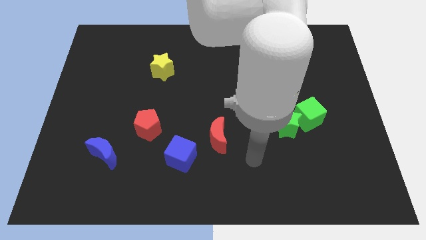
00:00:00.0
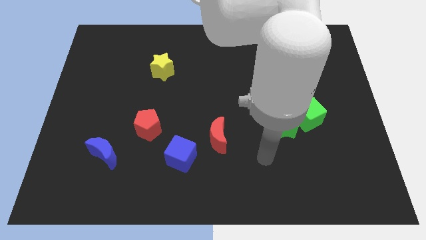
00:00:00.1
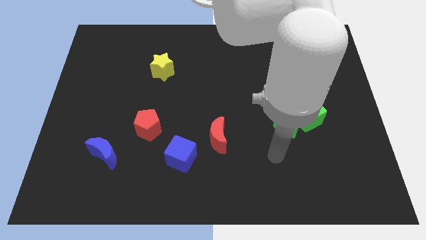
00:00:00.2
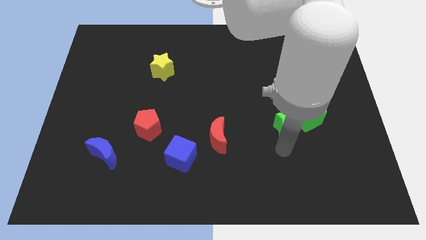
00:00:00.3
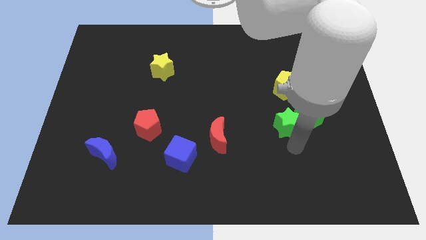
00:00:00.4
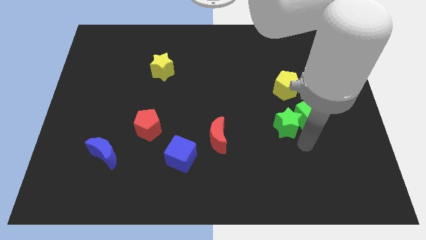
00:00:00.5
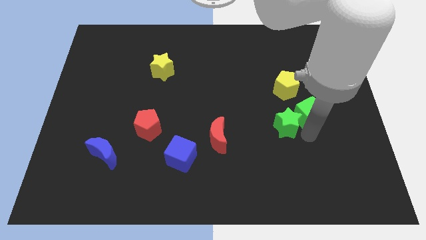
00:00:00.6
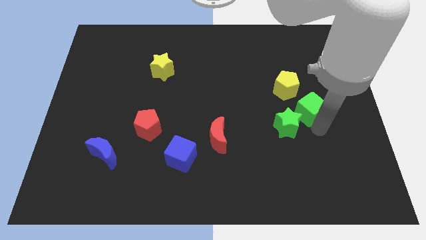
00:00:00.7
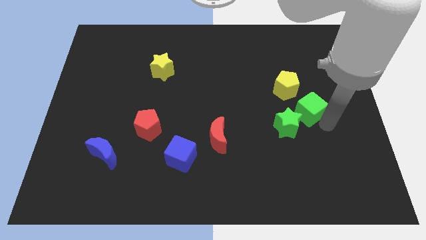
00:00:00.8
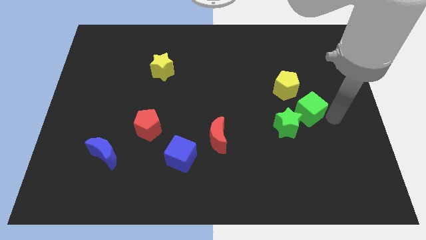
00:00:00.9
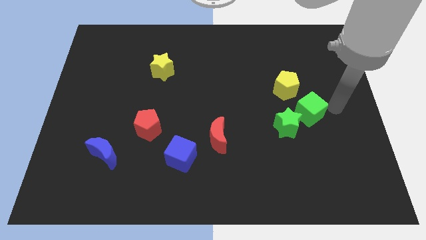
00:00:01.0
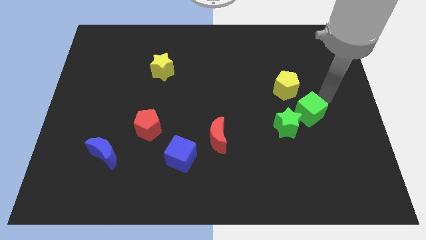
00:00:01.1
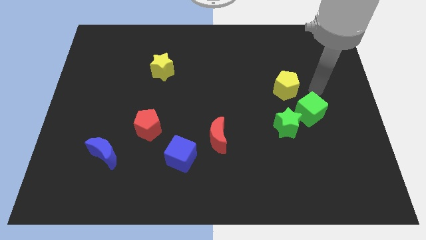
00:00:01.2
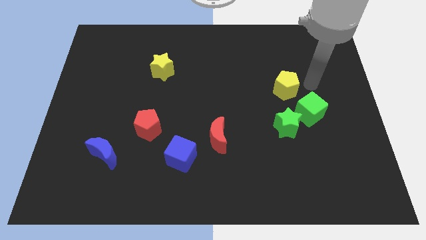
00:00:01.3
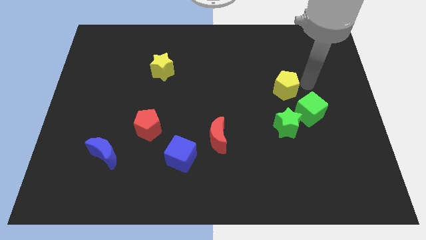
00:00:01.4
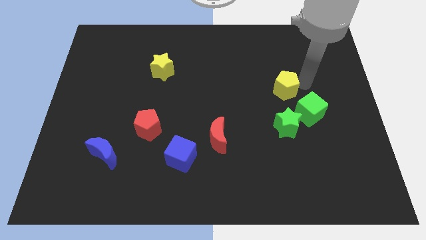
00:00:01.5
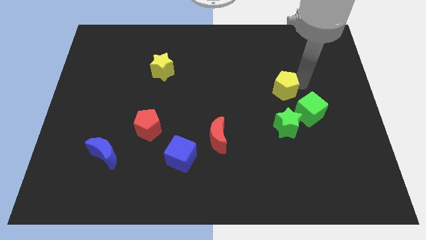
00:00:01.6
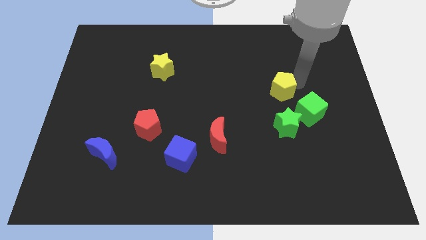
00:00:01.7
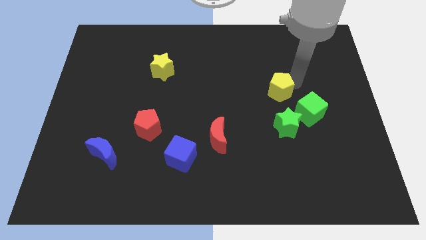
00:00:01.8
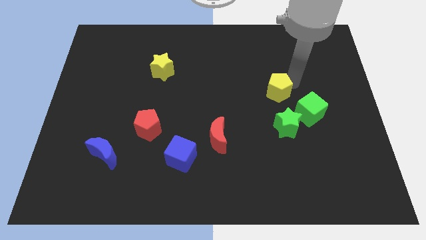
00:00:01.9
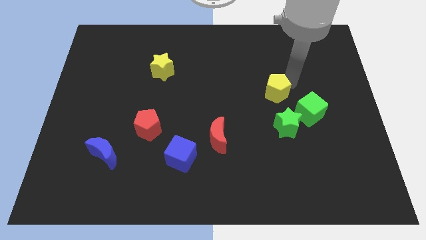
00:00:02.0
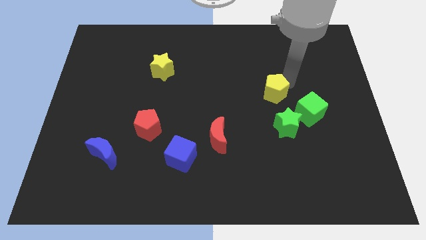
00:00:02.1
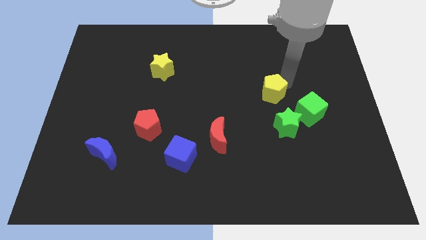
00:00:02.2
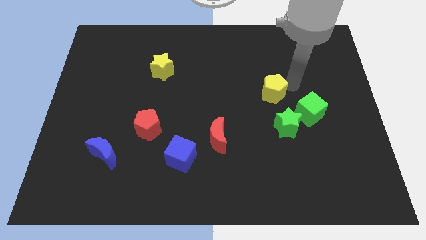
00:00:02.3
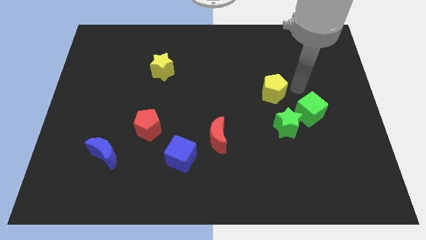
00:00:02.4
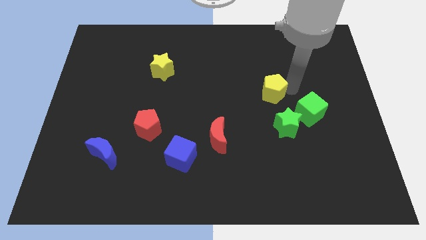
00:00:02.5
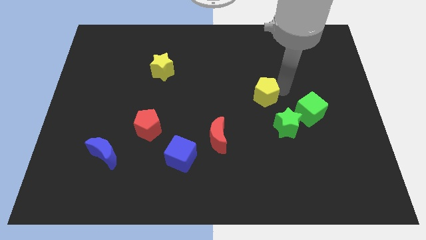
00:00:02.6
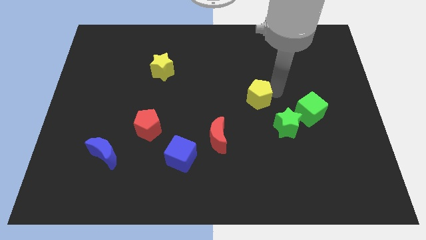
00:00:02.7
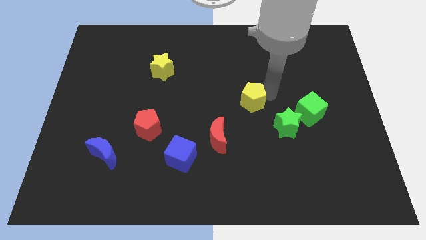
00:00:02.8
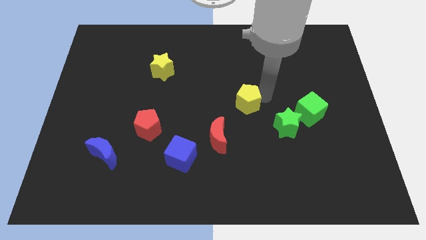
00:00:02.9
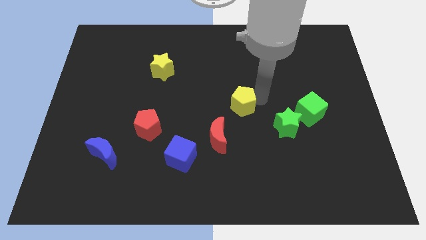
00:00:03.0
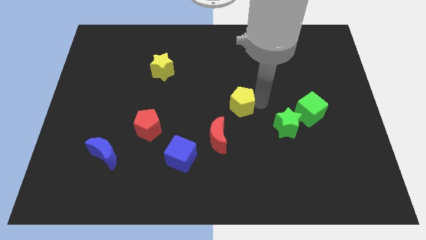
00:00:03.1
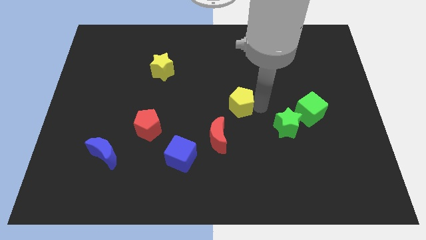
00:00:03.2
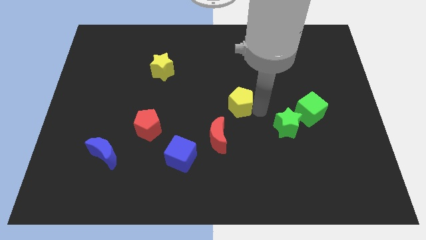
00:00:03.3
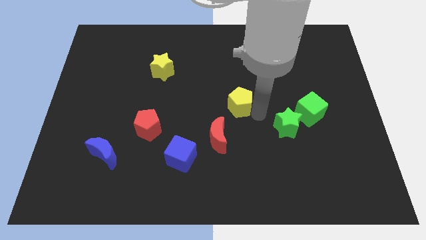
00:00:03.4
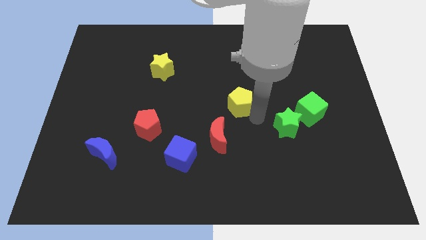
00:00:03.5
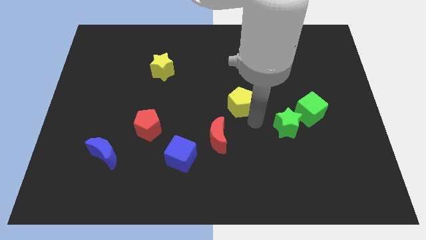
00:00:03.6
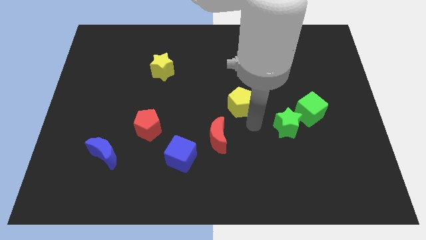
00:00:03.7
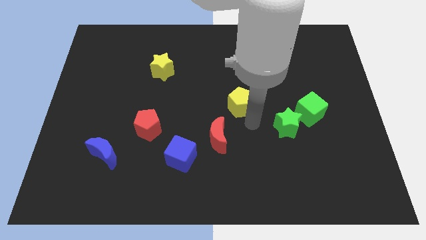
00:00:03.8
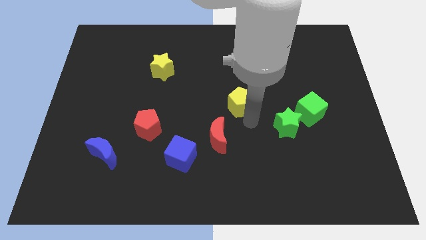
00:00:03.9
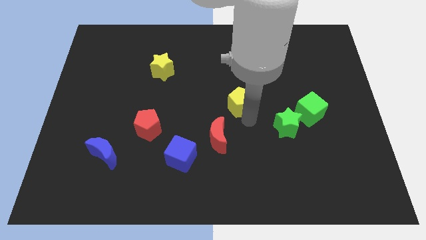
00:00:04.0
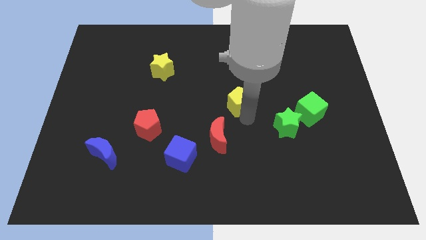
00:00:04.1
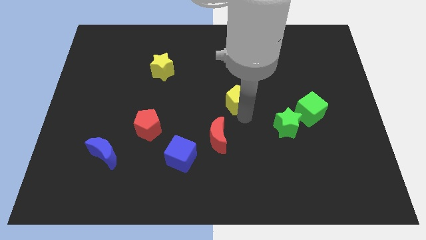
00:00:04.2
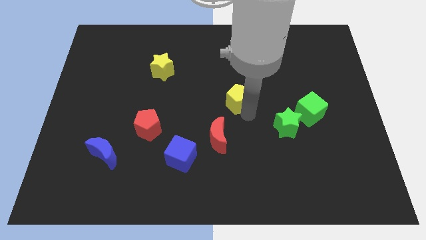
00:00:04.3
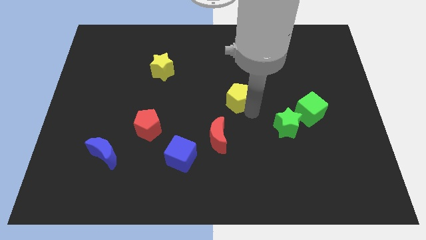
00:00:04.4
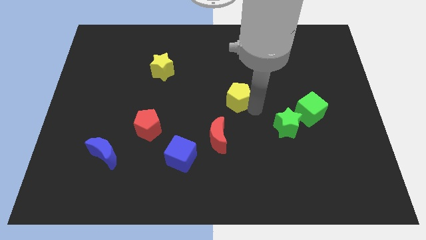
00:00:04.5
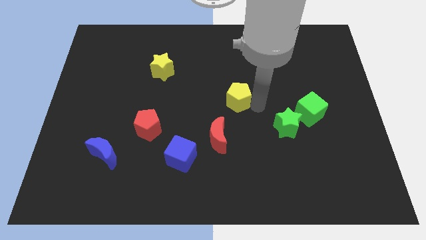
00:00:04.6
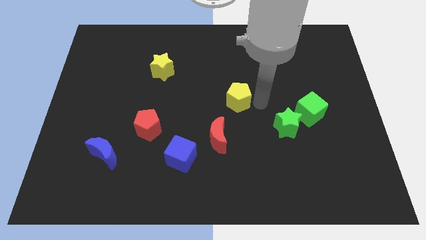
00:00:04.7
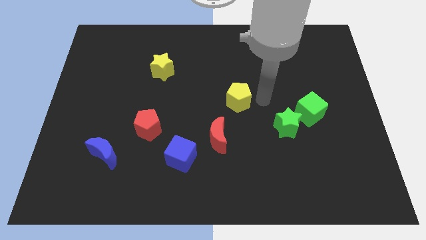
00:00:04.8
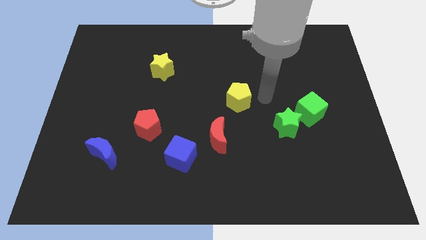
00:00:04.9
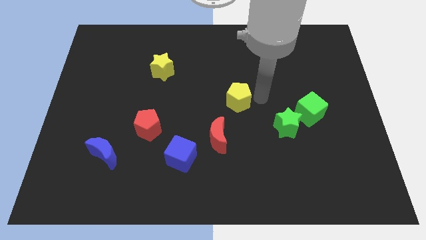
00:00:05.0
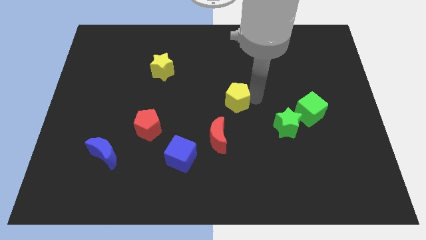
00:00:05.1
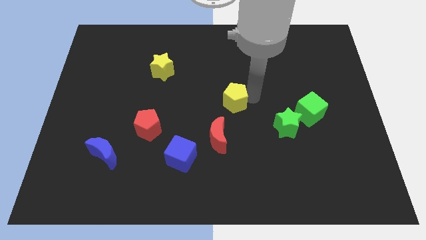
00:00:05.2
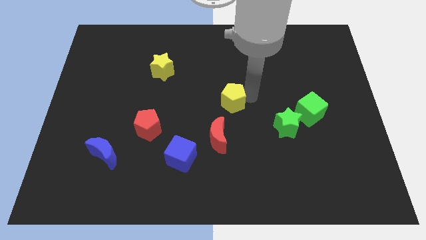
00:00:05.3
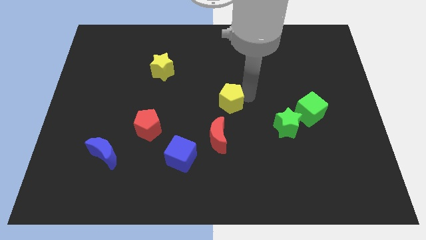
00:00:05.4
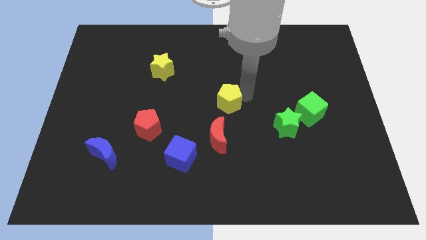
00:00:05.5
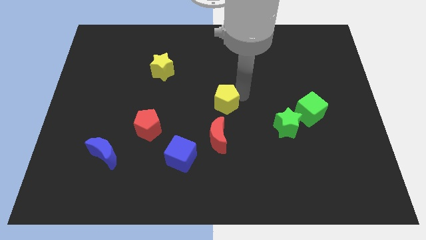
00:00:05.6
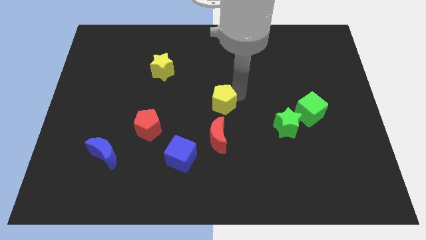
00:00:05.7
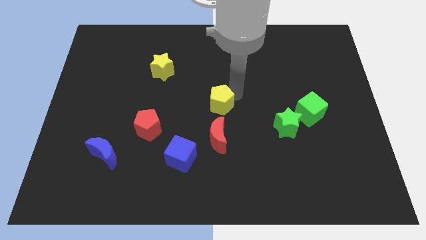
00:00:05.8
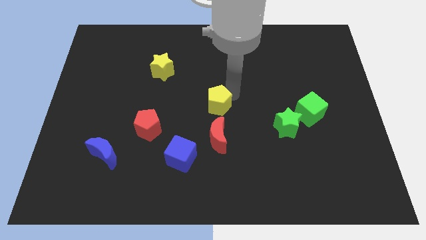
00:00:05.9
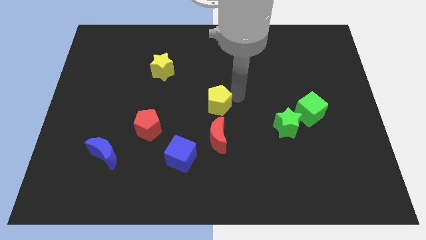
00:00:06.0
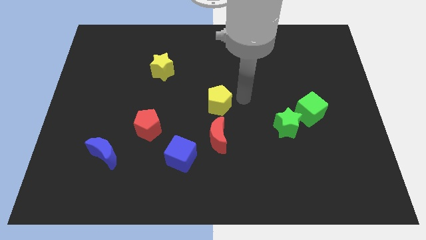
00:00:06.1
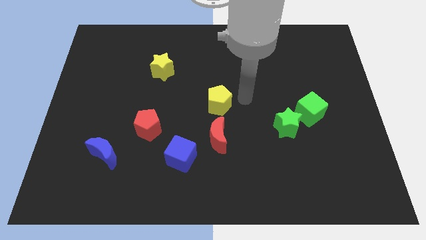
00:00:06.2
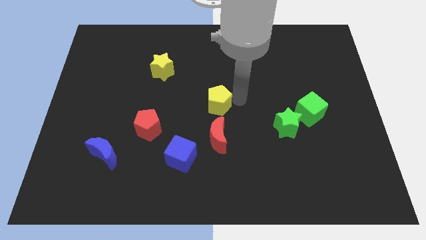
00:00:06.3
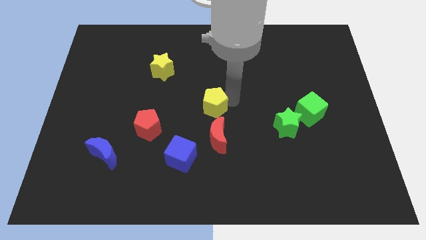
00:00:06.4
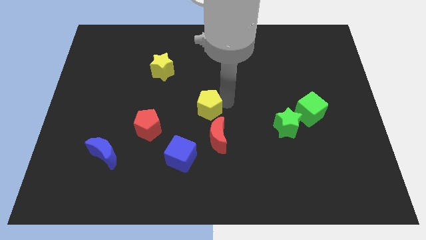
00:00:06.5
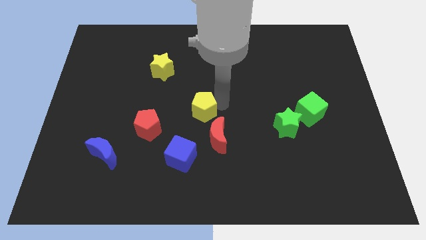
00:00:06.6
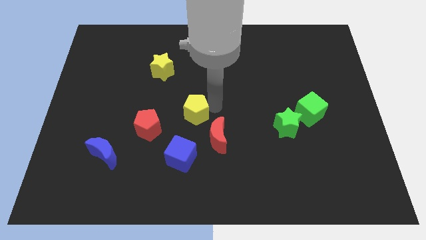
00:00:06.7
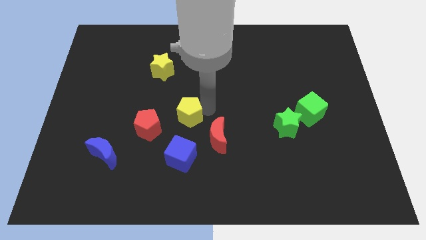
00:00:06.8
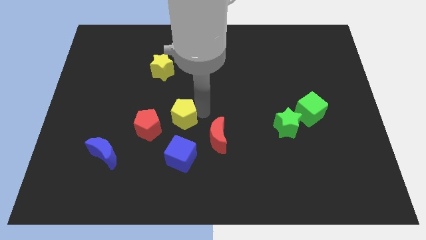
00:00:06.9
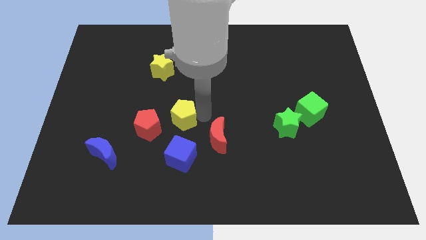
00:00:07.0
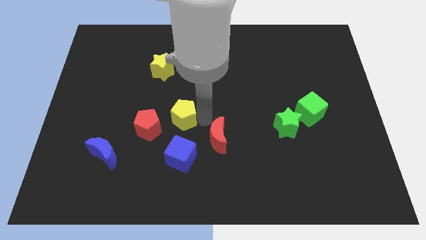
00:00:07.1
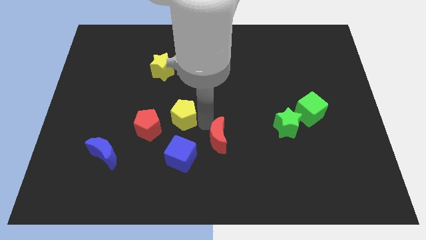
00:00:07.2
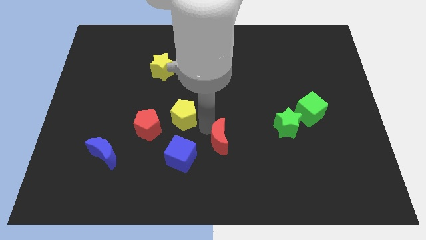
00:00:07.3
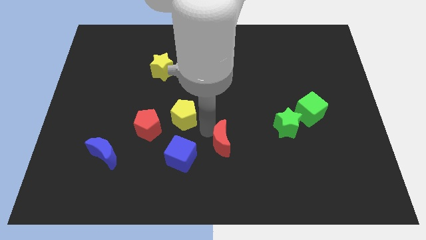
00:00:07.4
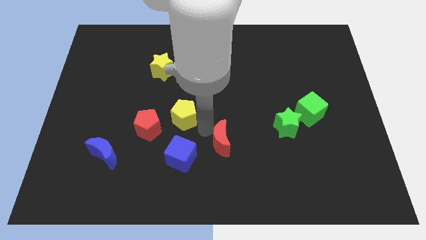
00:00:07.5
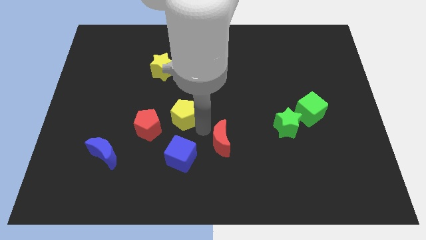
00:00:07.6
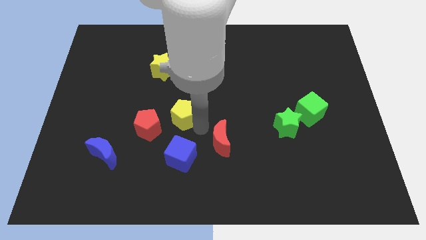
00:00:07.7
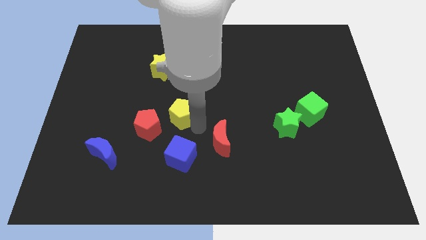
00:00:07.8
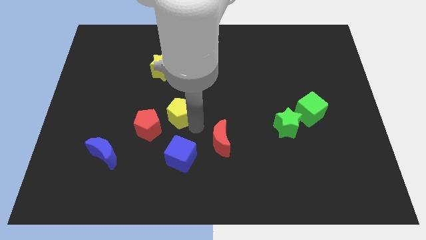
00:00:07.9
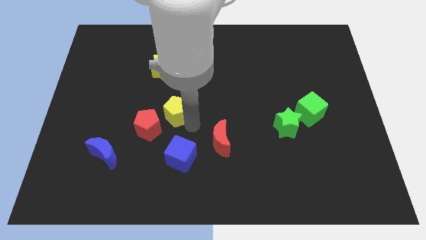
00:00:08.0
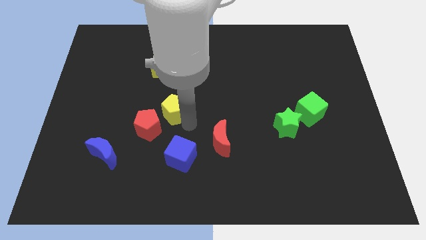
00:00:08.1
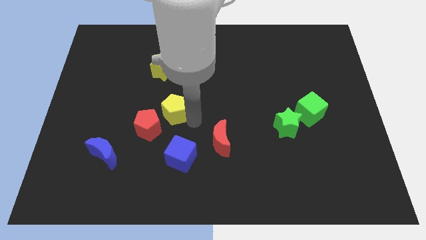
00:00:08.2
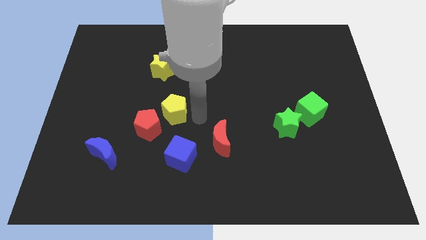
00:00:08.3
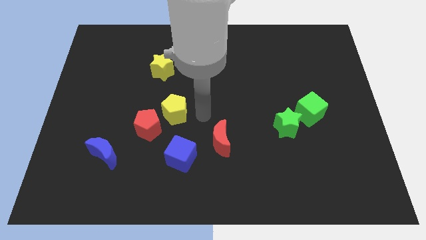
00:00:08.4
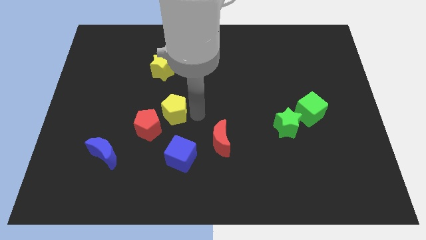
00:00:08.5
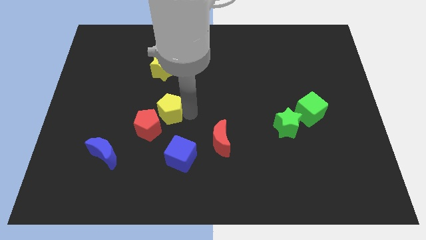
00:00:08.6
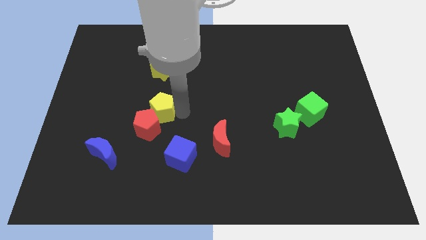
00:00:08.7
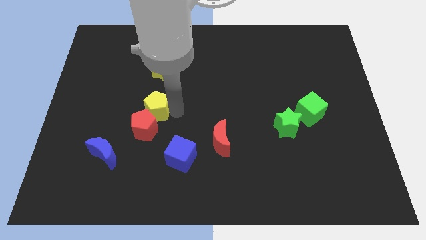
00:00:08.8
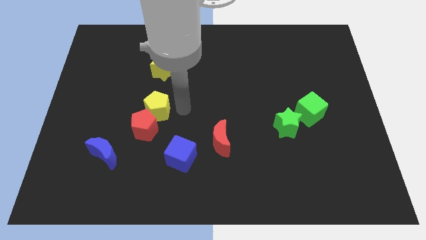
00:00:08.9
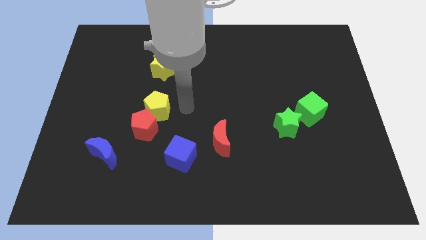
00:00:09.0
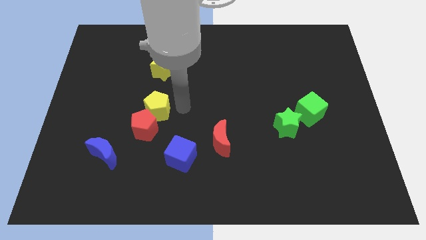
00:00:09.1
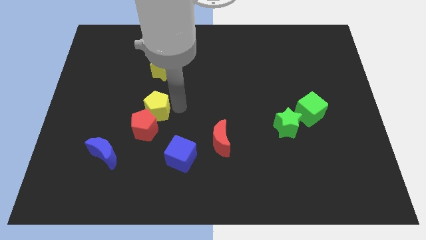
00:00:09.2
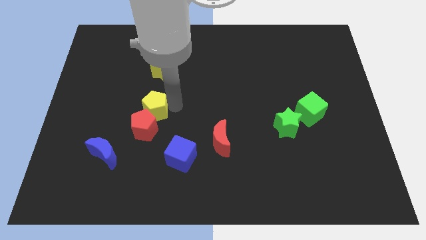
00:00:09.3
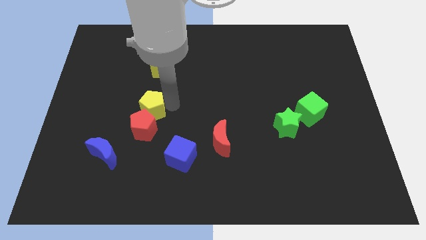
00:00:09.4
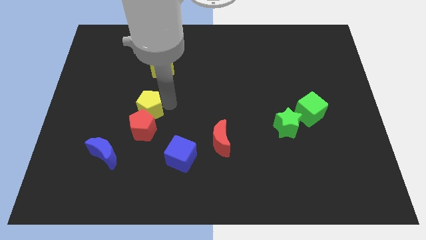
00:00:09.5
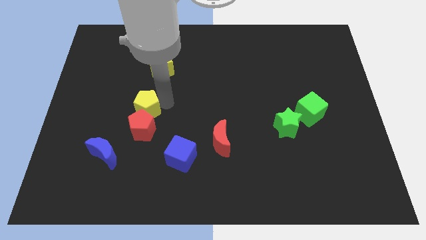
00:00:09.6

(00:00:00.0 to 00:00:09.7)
slide the yellow pentagon diagonally up and to the left of the red pentagon
